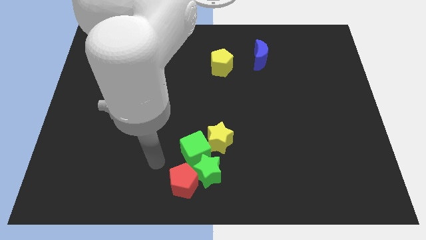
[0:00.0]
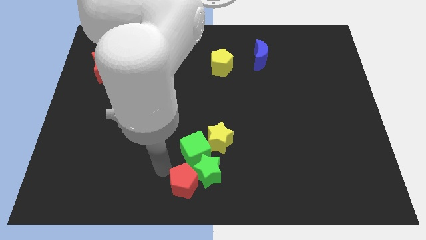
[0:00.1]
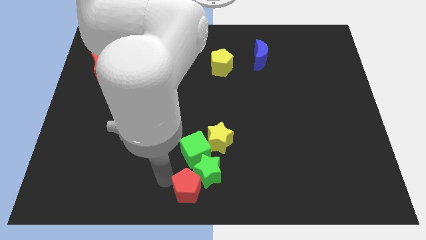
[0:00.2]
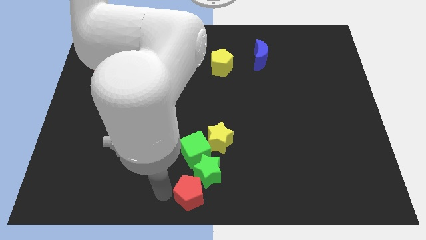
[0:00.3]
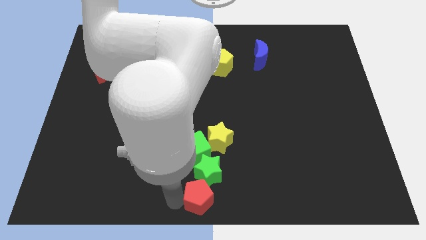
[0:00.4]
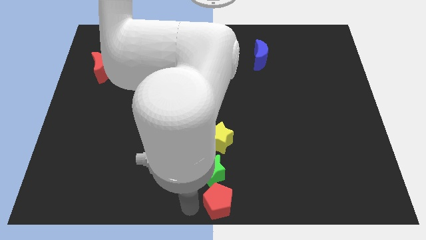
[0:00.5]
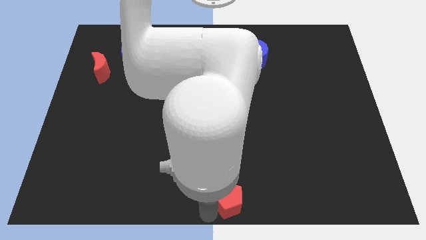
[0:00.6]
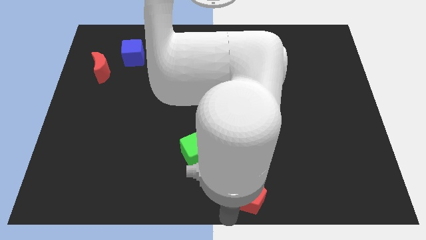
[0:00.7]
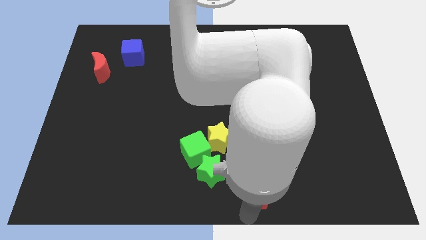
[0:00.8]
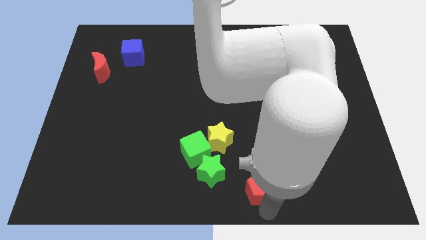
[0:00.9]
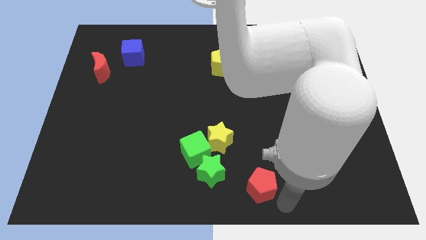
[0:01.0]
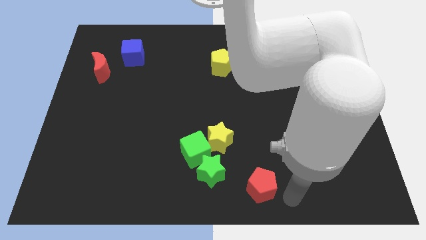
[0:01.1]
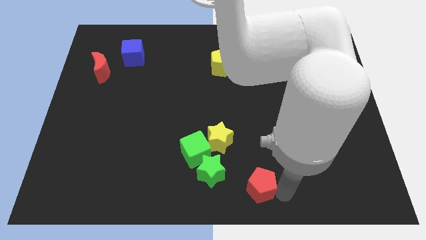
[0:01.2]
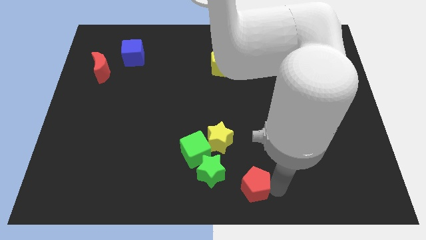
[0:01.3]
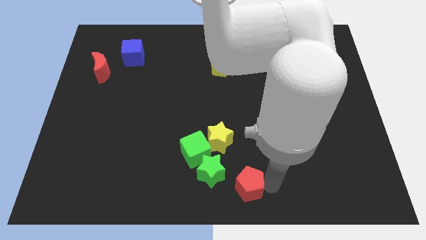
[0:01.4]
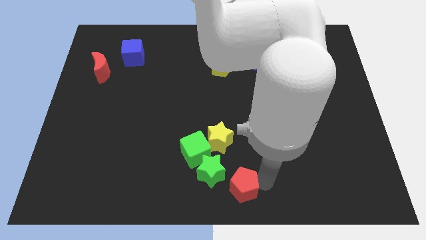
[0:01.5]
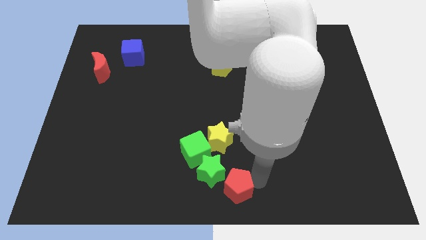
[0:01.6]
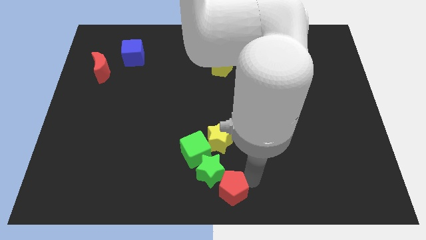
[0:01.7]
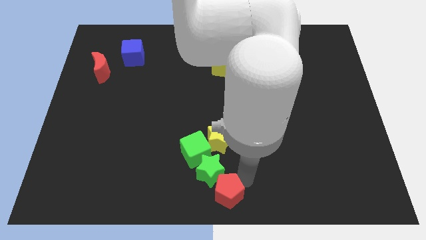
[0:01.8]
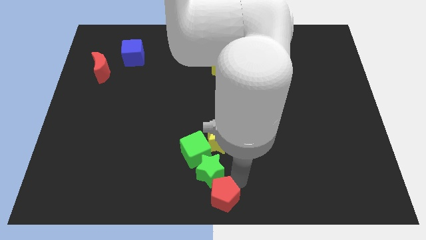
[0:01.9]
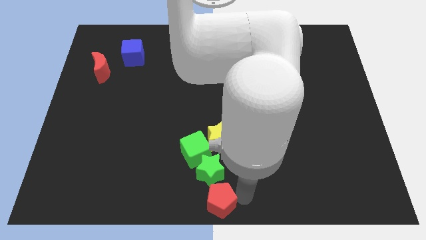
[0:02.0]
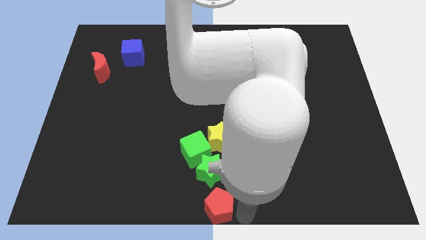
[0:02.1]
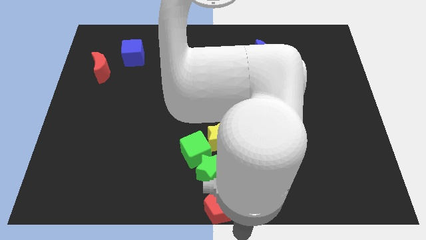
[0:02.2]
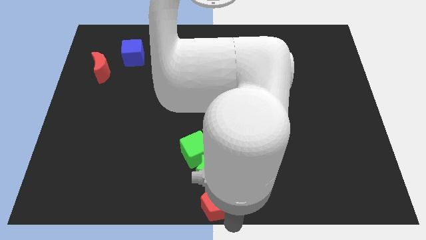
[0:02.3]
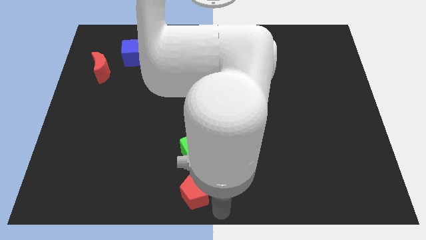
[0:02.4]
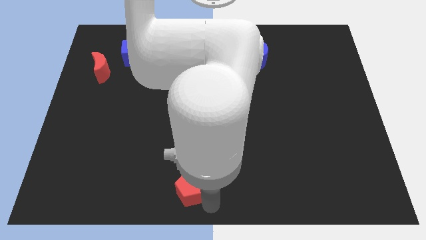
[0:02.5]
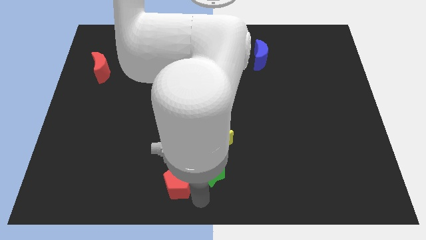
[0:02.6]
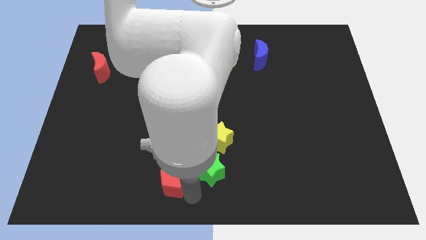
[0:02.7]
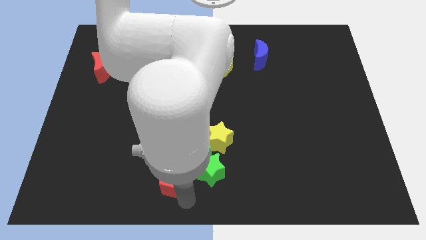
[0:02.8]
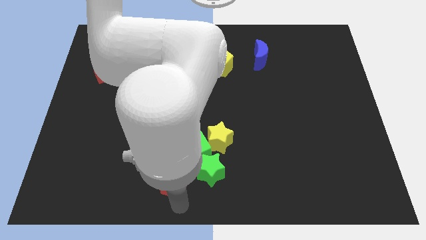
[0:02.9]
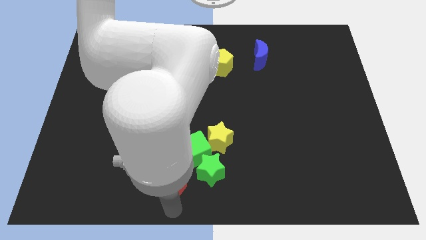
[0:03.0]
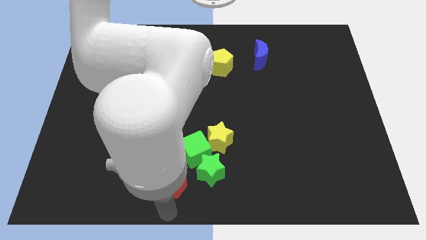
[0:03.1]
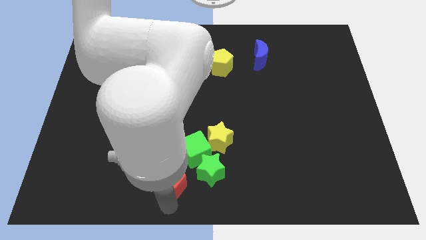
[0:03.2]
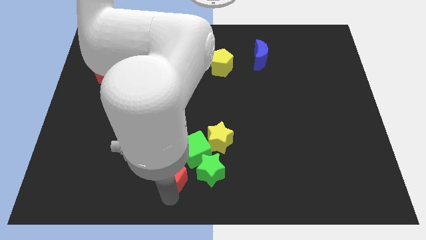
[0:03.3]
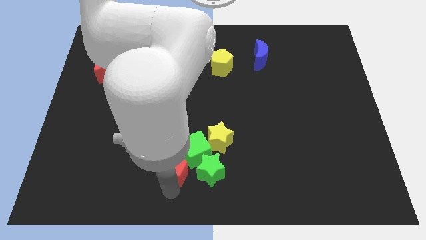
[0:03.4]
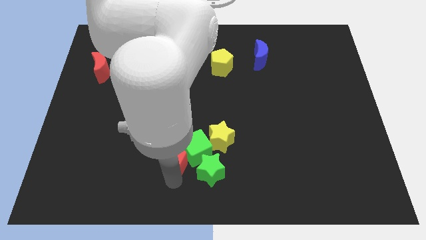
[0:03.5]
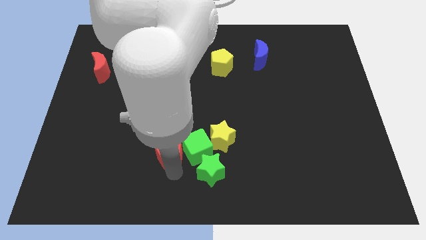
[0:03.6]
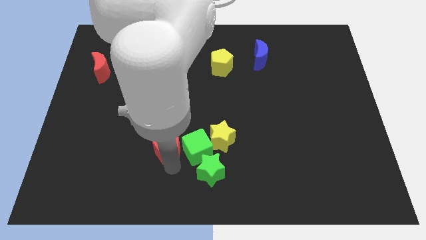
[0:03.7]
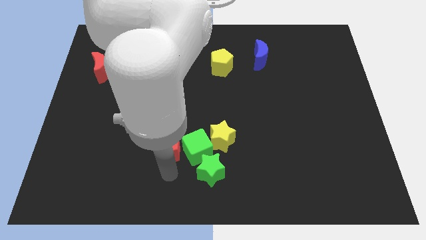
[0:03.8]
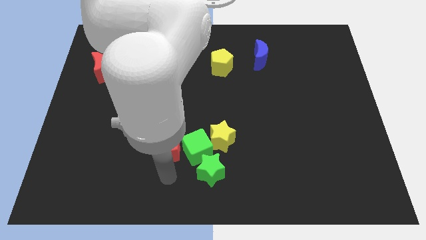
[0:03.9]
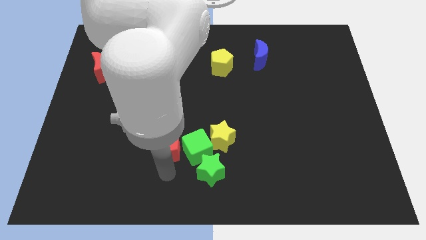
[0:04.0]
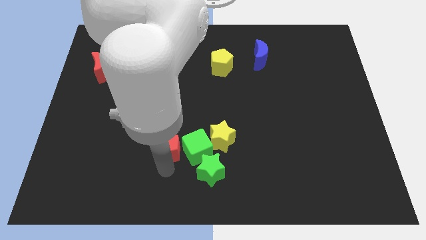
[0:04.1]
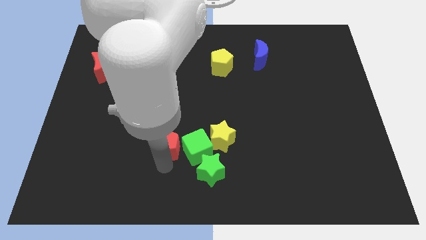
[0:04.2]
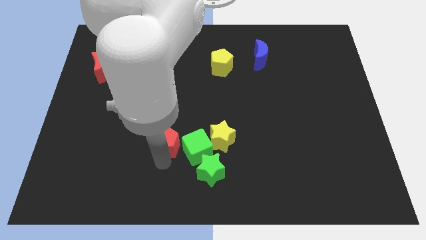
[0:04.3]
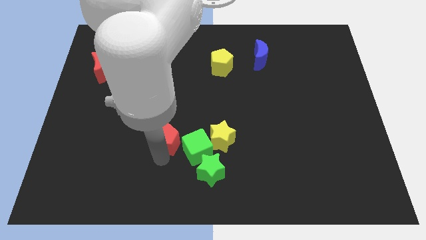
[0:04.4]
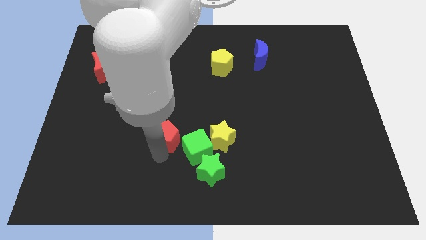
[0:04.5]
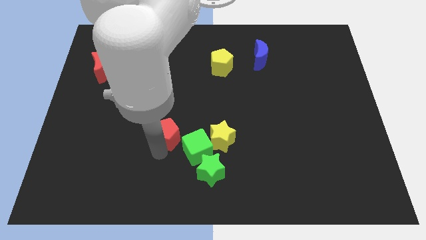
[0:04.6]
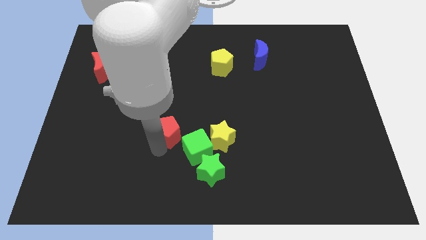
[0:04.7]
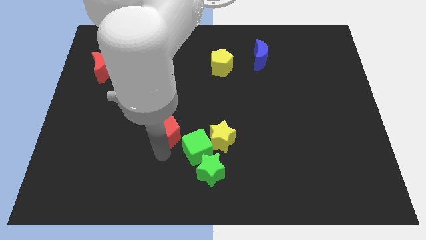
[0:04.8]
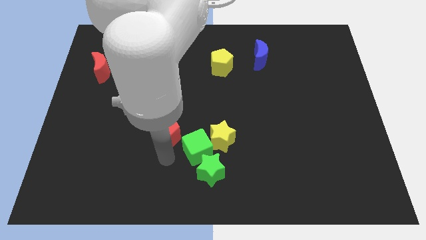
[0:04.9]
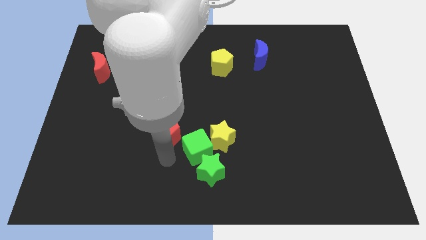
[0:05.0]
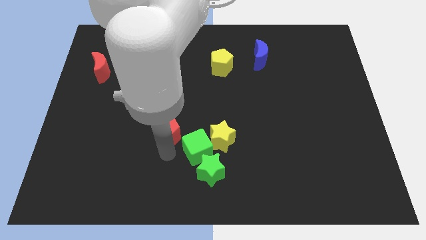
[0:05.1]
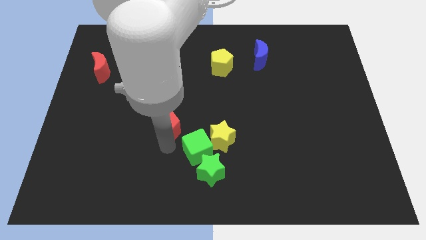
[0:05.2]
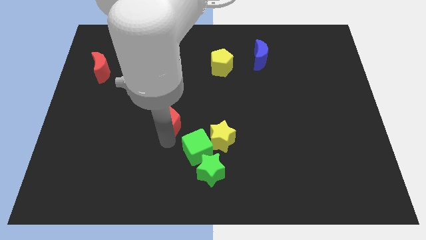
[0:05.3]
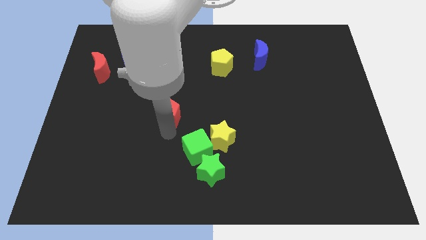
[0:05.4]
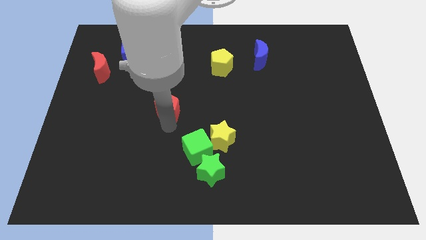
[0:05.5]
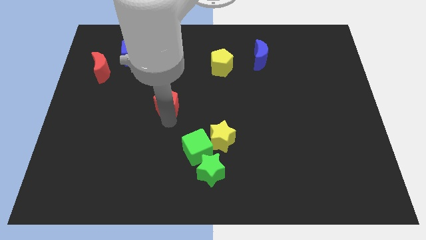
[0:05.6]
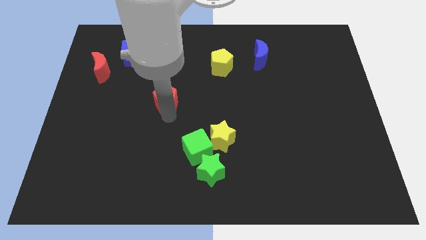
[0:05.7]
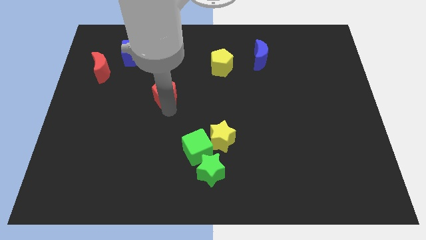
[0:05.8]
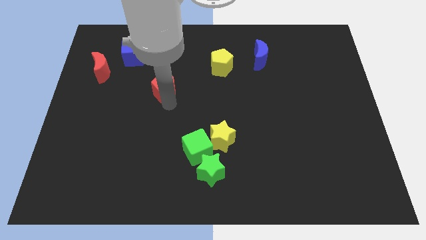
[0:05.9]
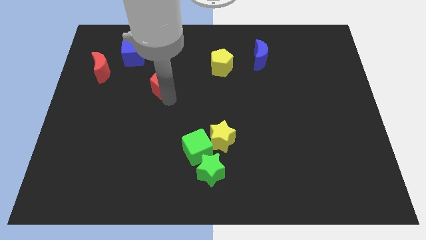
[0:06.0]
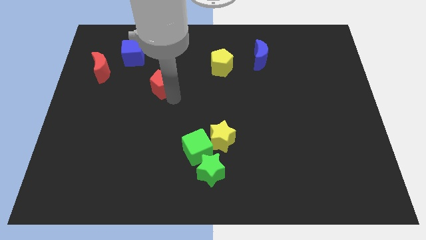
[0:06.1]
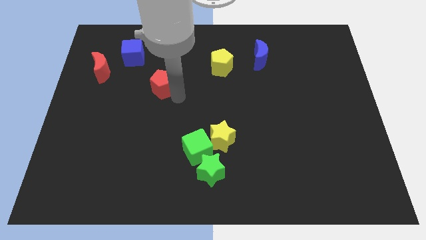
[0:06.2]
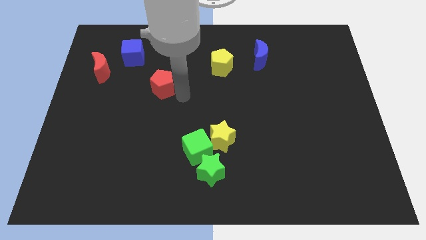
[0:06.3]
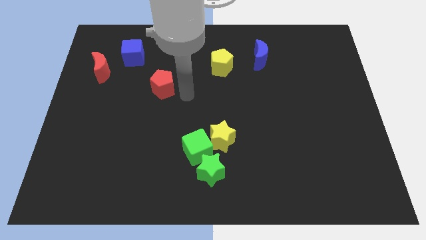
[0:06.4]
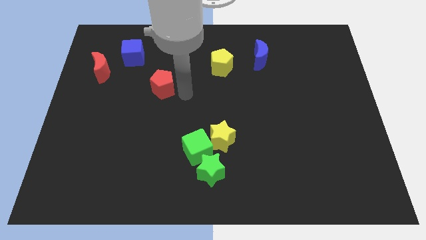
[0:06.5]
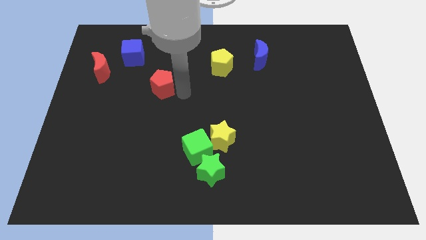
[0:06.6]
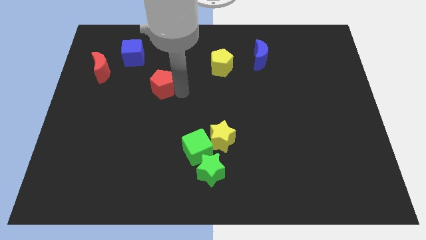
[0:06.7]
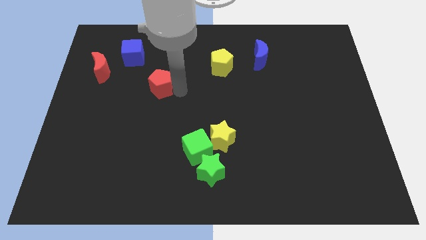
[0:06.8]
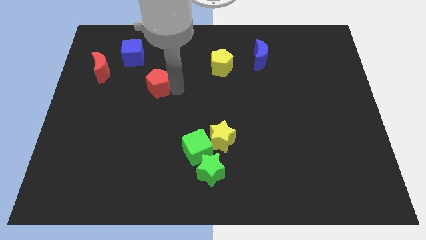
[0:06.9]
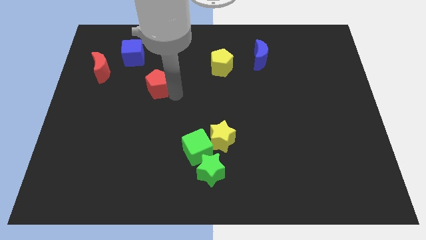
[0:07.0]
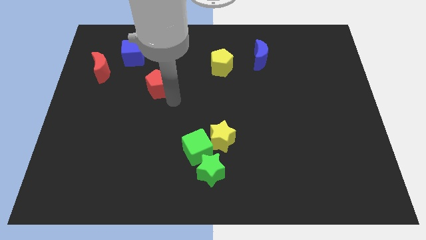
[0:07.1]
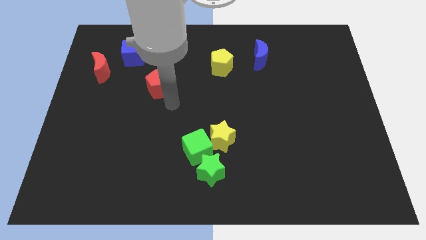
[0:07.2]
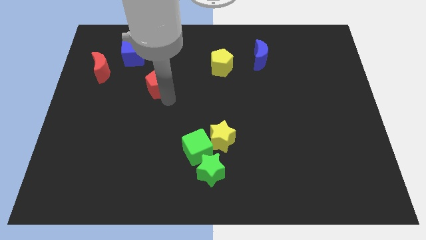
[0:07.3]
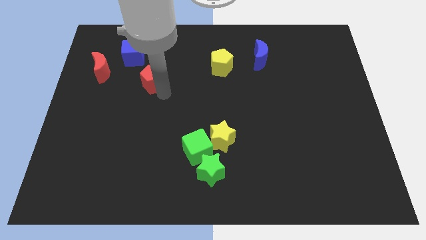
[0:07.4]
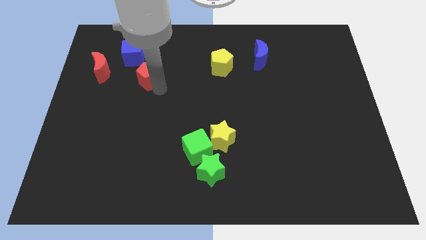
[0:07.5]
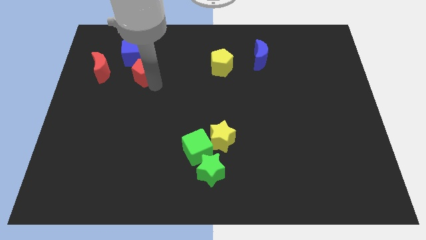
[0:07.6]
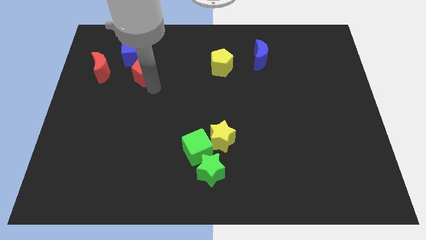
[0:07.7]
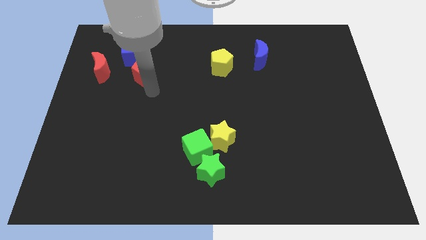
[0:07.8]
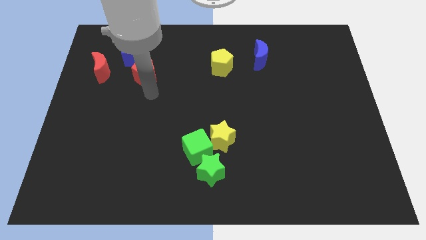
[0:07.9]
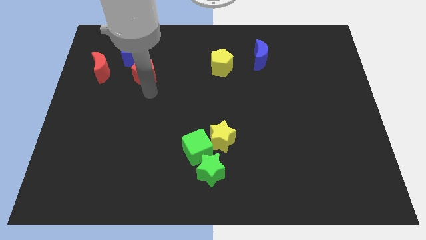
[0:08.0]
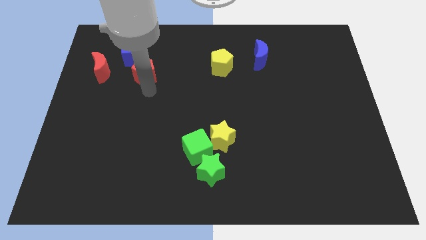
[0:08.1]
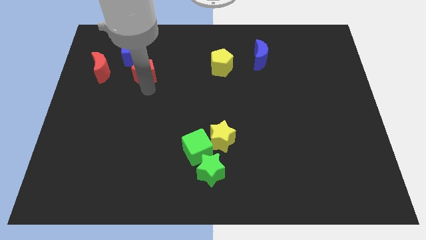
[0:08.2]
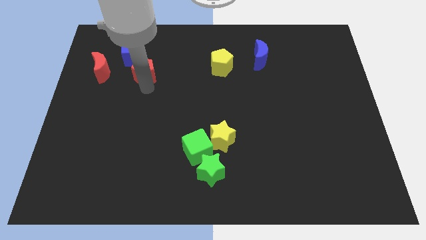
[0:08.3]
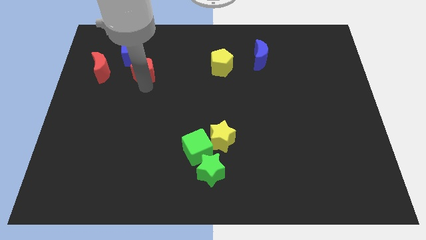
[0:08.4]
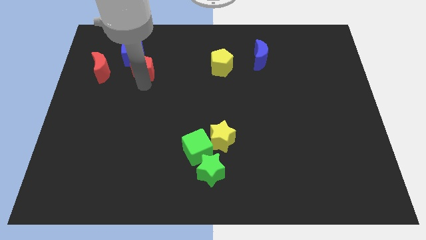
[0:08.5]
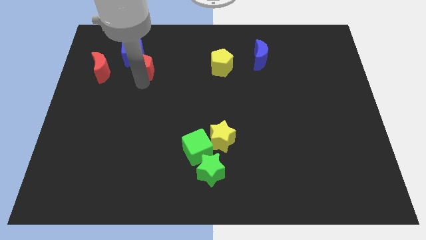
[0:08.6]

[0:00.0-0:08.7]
move the red pentagon towards the blue cube
